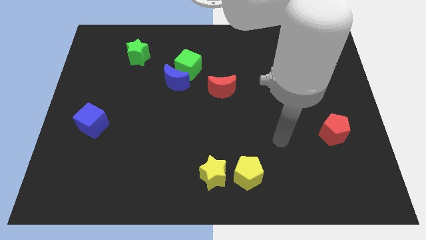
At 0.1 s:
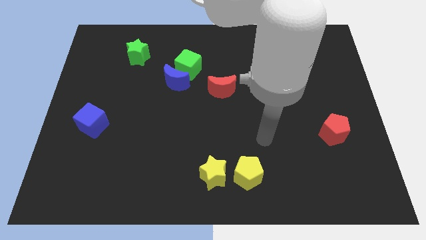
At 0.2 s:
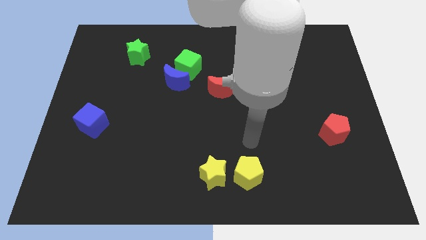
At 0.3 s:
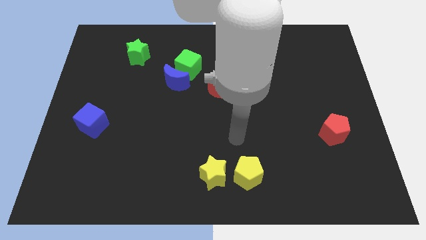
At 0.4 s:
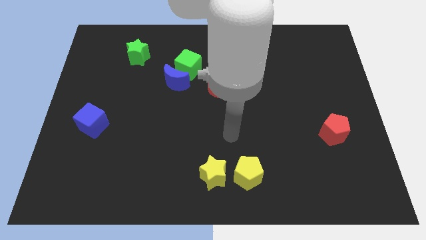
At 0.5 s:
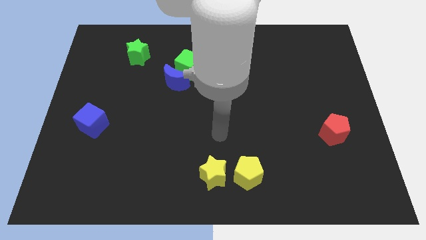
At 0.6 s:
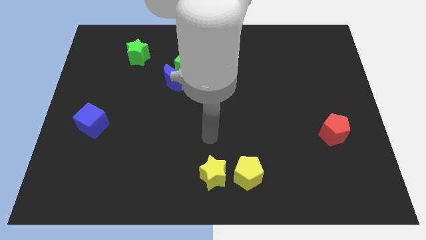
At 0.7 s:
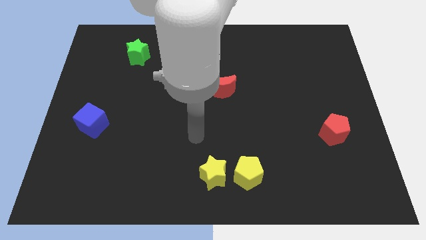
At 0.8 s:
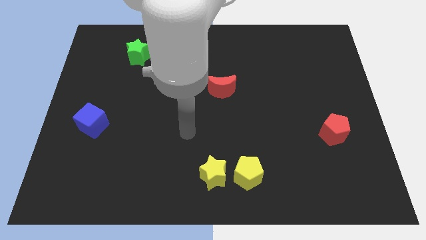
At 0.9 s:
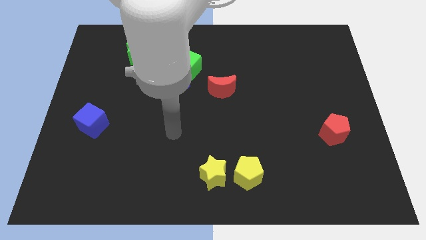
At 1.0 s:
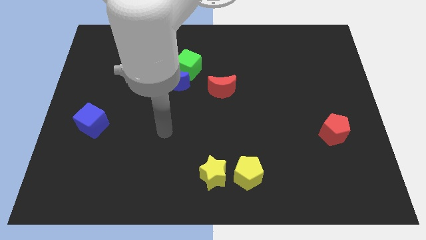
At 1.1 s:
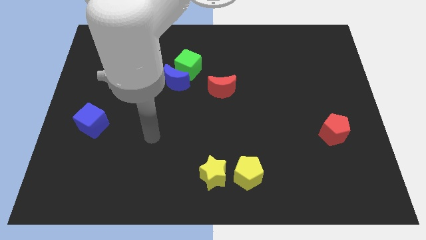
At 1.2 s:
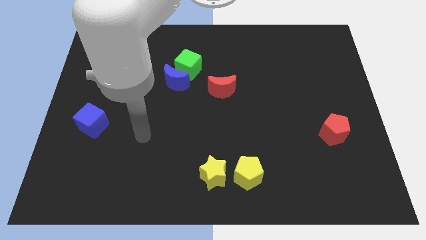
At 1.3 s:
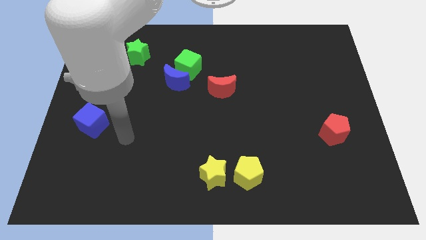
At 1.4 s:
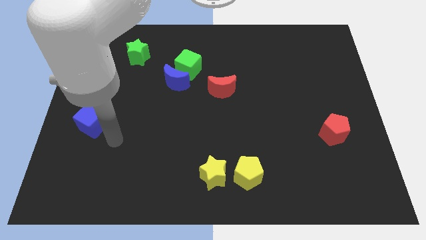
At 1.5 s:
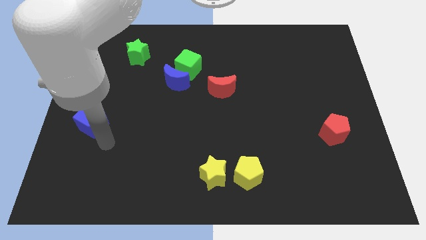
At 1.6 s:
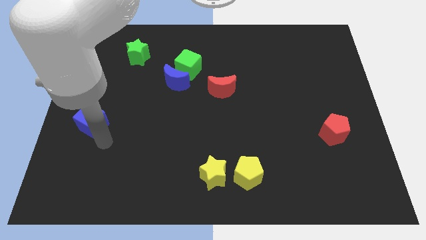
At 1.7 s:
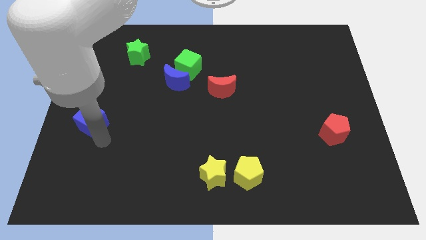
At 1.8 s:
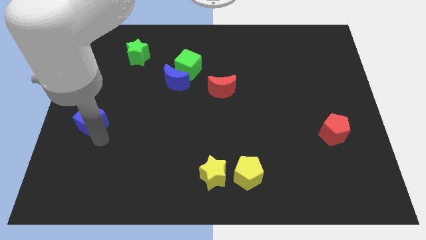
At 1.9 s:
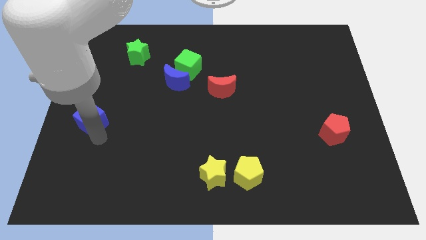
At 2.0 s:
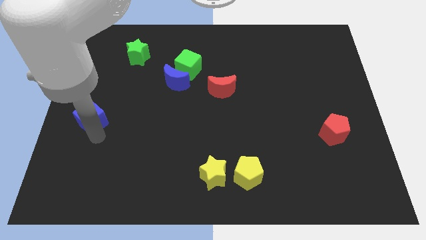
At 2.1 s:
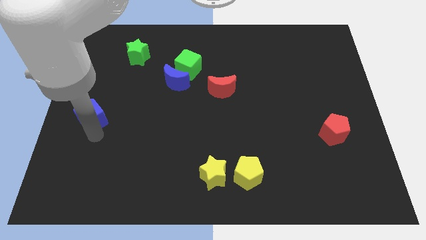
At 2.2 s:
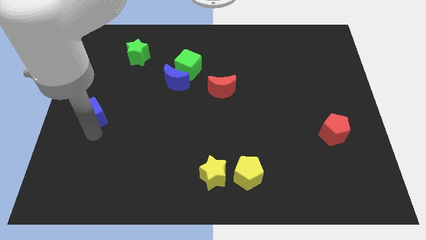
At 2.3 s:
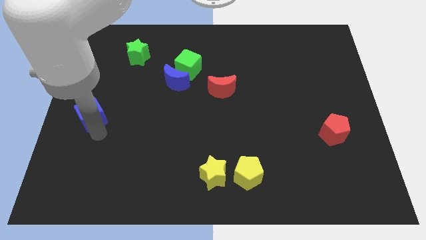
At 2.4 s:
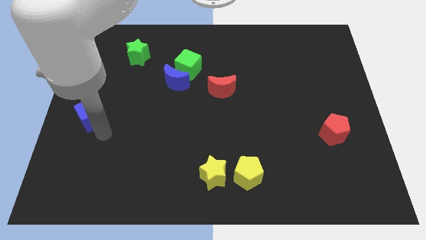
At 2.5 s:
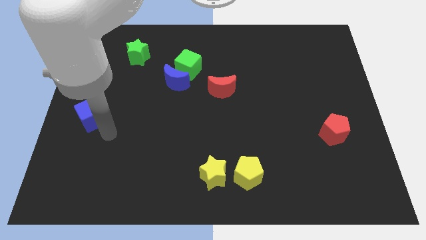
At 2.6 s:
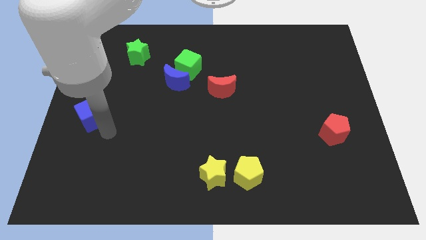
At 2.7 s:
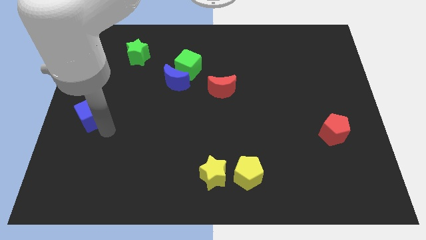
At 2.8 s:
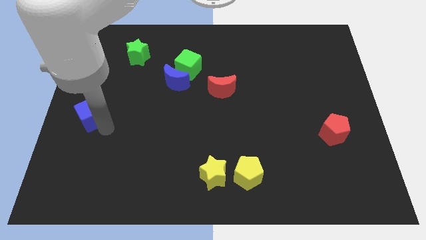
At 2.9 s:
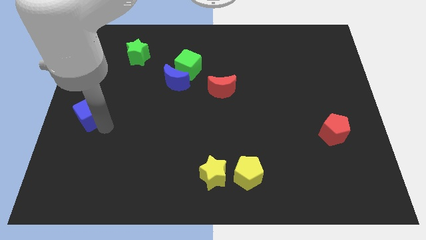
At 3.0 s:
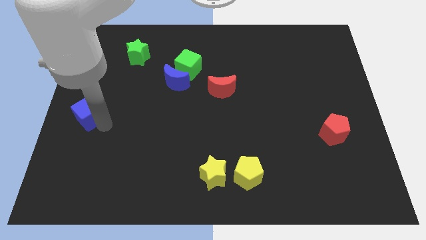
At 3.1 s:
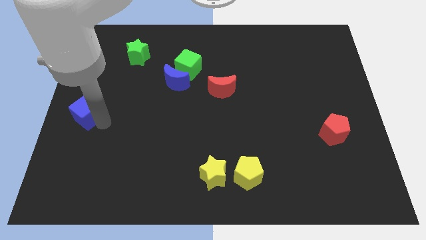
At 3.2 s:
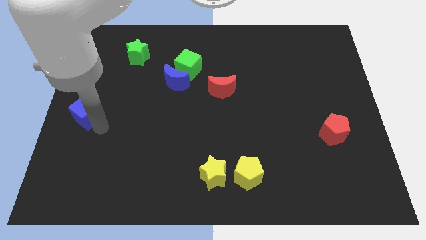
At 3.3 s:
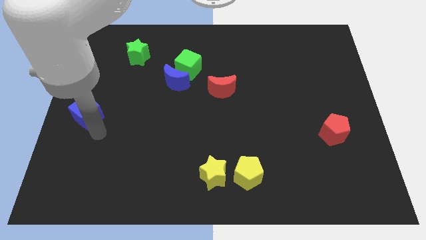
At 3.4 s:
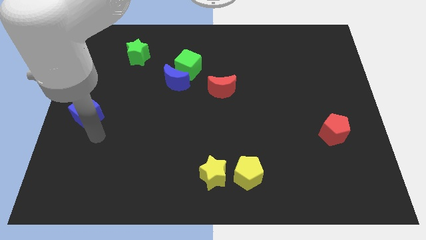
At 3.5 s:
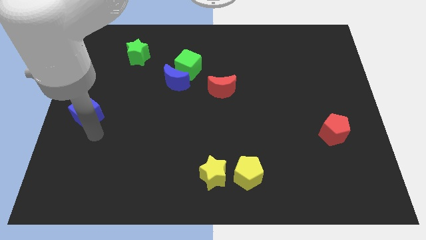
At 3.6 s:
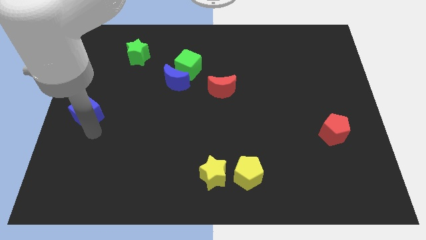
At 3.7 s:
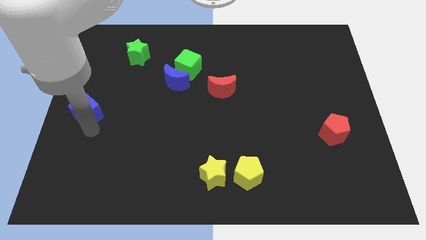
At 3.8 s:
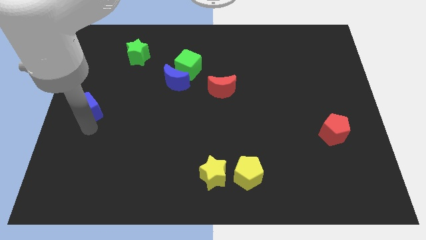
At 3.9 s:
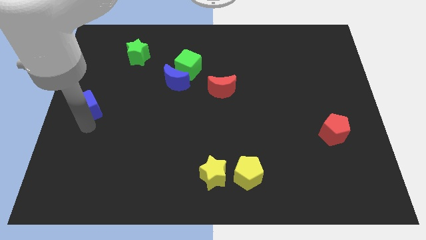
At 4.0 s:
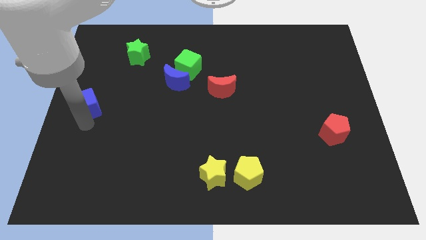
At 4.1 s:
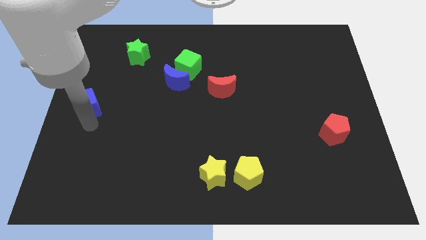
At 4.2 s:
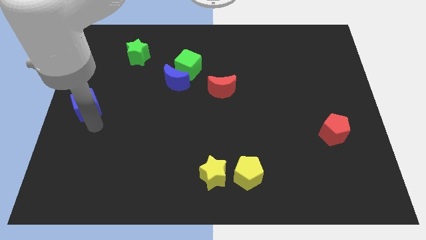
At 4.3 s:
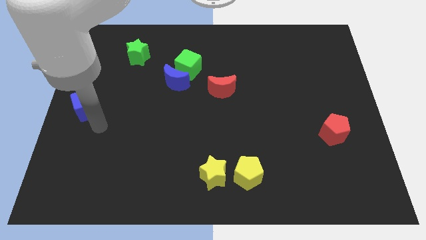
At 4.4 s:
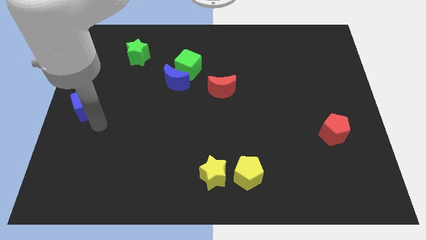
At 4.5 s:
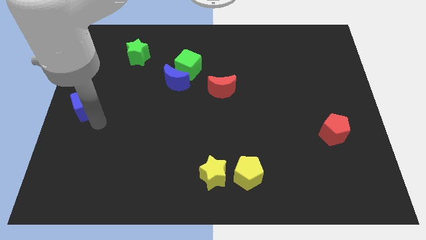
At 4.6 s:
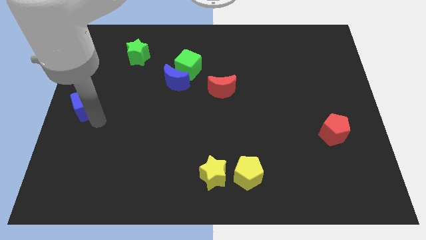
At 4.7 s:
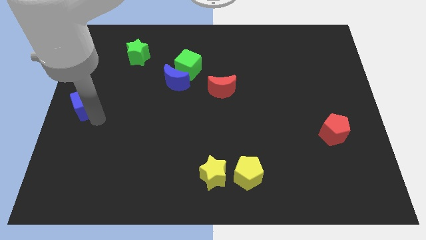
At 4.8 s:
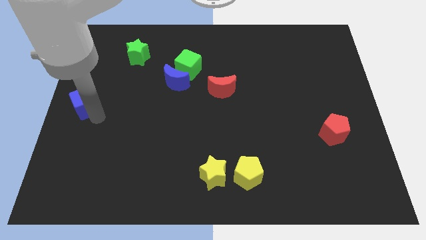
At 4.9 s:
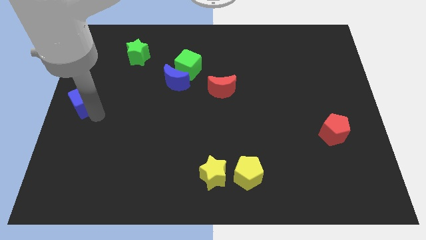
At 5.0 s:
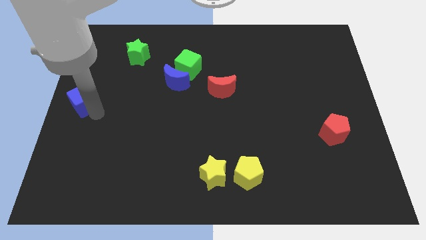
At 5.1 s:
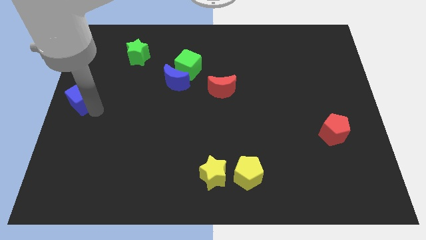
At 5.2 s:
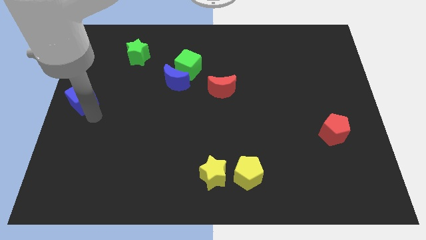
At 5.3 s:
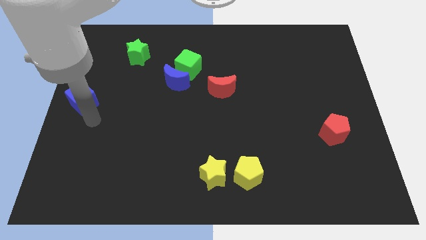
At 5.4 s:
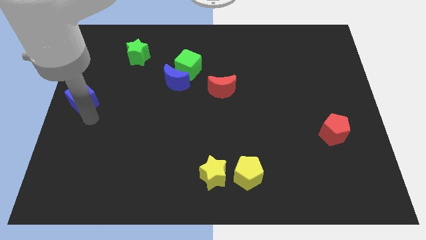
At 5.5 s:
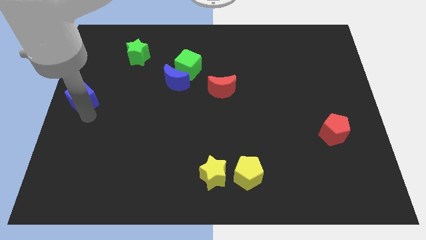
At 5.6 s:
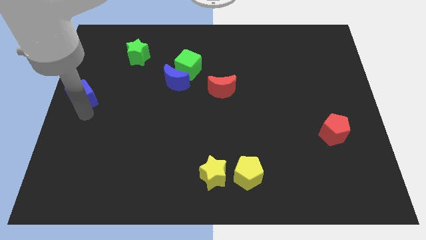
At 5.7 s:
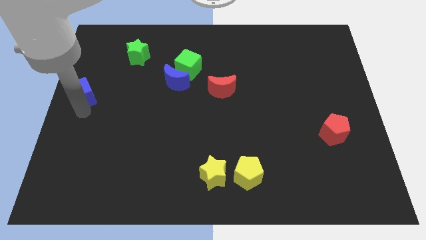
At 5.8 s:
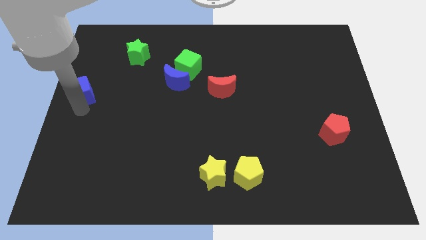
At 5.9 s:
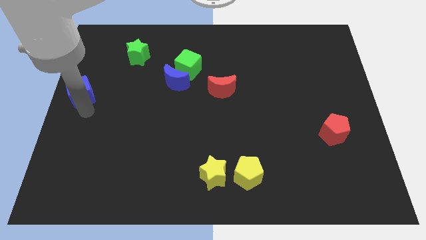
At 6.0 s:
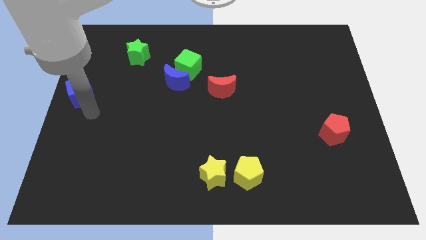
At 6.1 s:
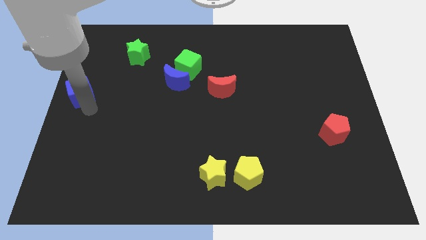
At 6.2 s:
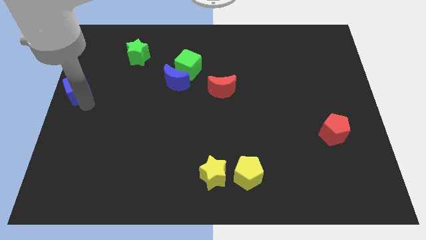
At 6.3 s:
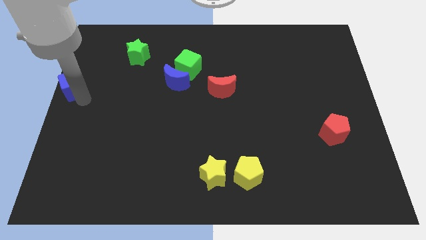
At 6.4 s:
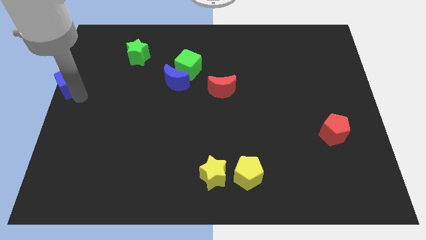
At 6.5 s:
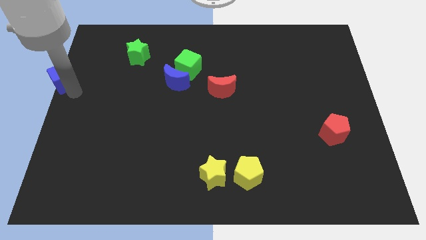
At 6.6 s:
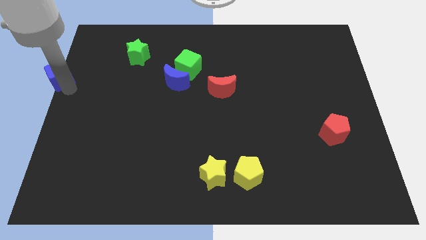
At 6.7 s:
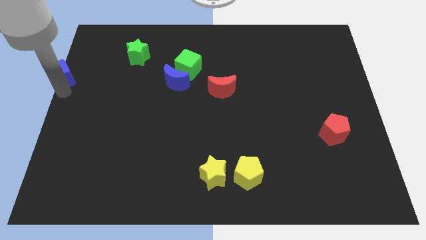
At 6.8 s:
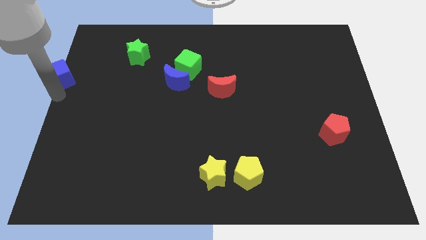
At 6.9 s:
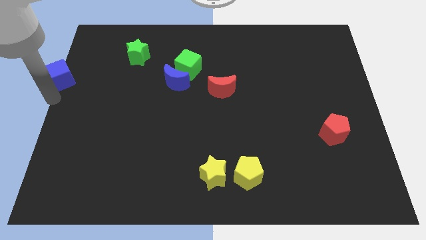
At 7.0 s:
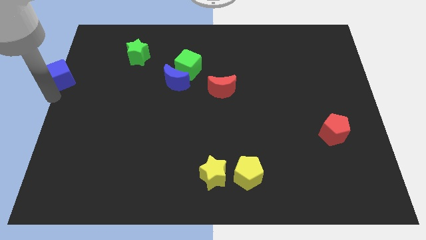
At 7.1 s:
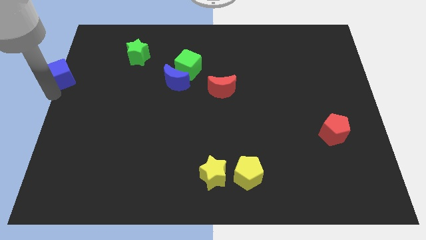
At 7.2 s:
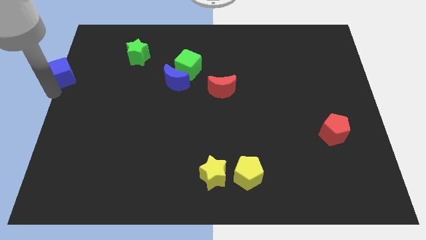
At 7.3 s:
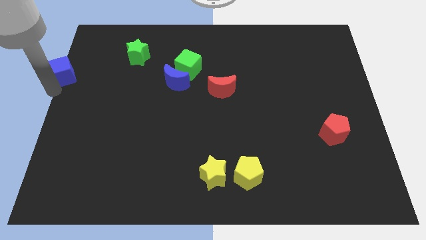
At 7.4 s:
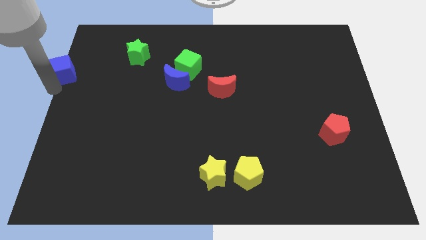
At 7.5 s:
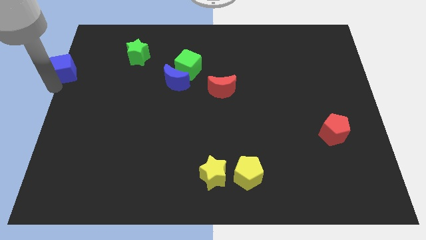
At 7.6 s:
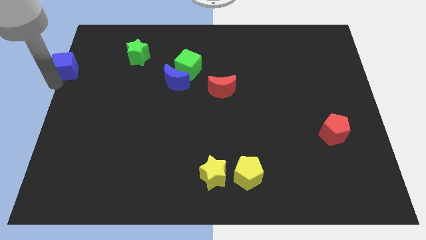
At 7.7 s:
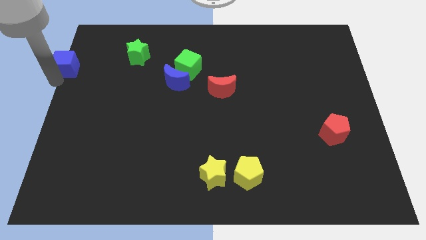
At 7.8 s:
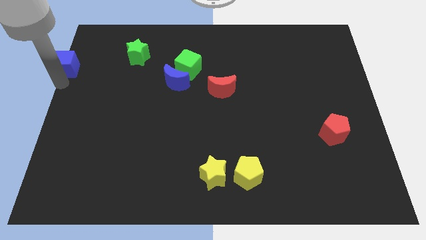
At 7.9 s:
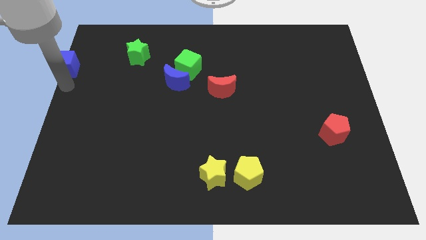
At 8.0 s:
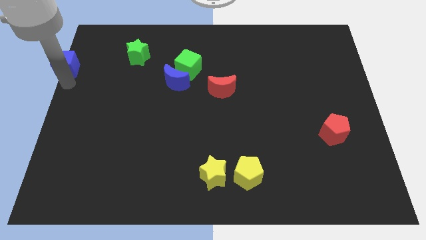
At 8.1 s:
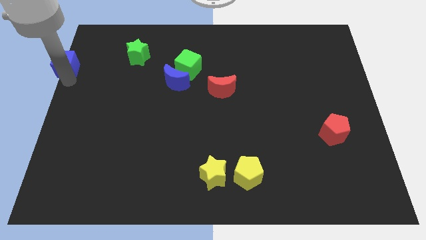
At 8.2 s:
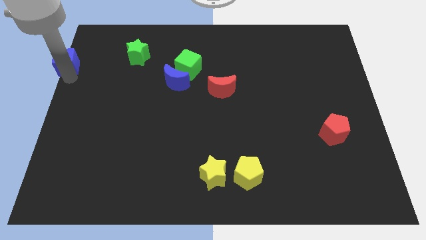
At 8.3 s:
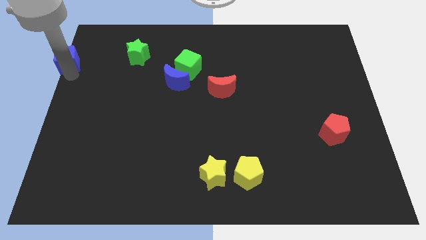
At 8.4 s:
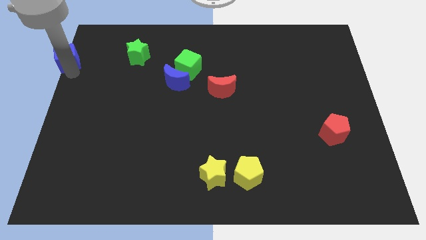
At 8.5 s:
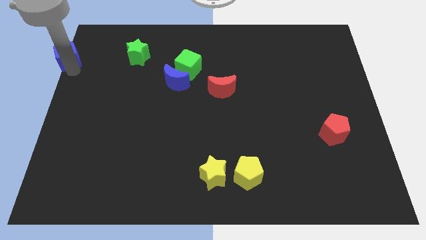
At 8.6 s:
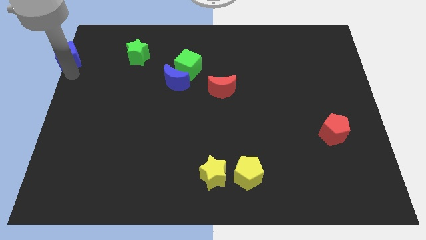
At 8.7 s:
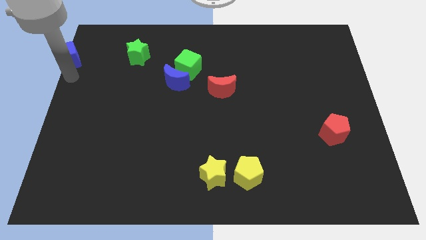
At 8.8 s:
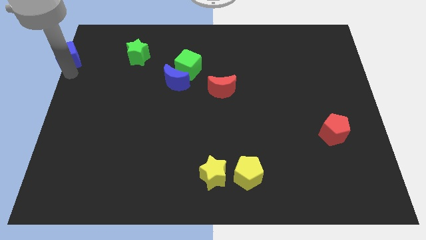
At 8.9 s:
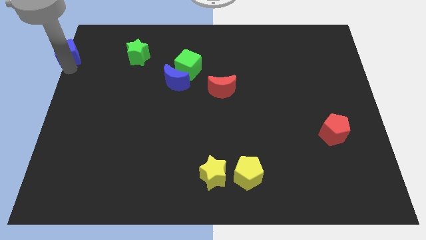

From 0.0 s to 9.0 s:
move the blue cube to the top left corner
